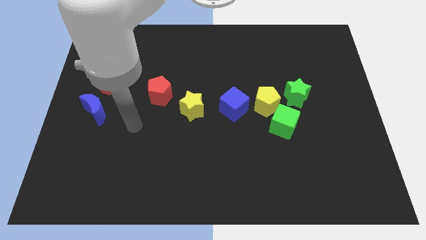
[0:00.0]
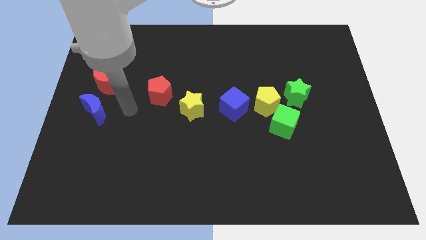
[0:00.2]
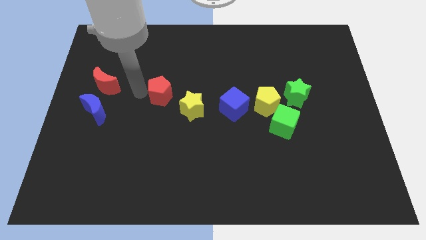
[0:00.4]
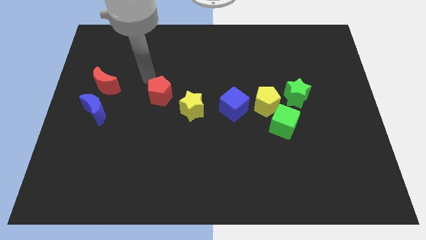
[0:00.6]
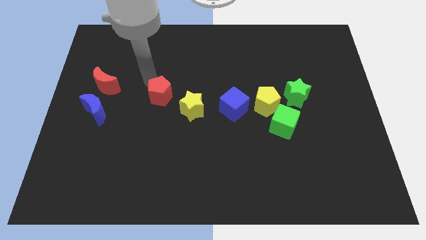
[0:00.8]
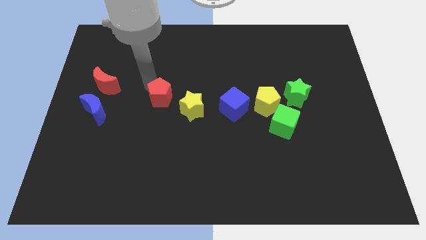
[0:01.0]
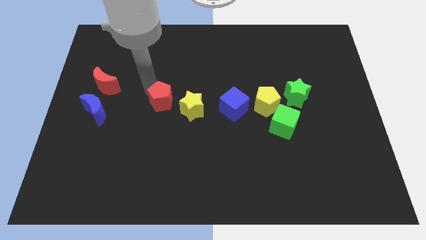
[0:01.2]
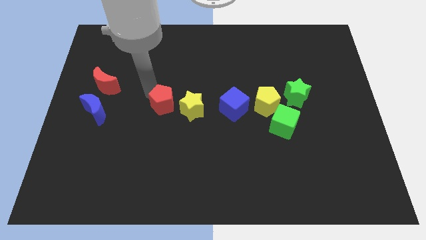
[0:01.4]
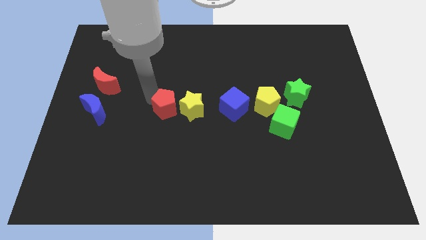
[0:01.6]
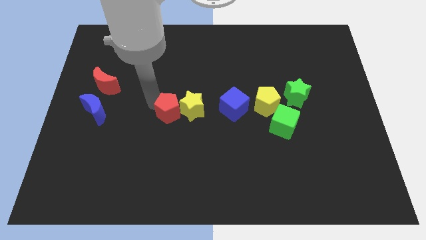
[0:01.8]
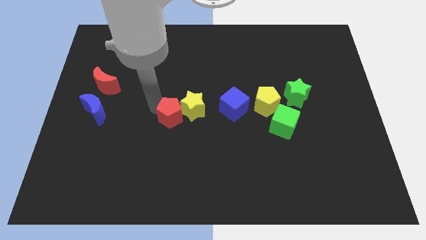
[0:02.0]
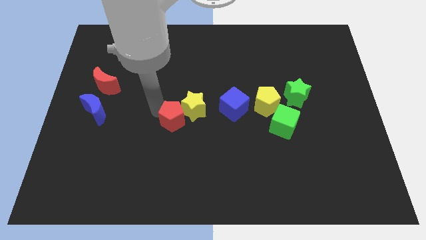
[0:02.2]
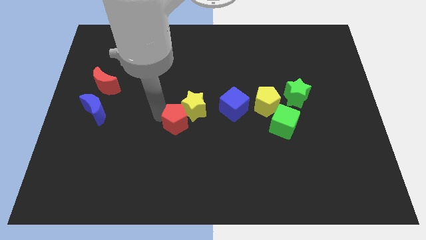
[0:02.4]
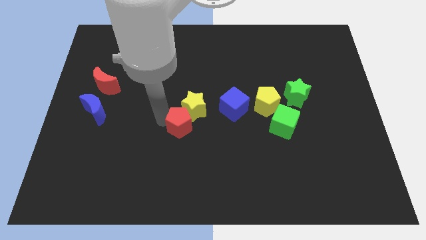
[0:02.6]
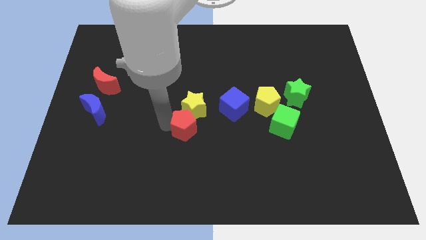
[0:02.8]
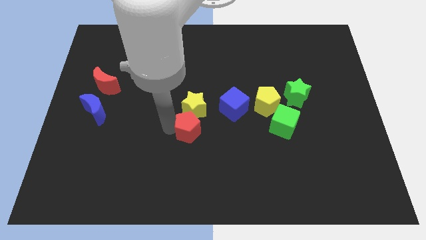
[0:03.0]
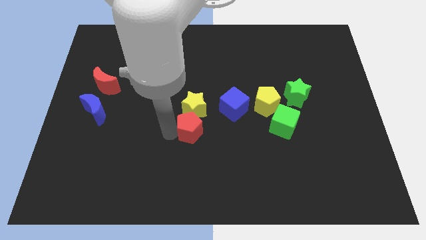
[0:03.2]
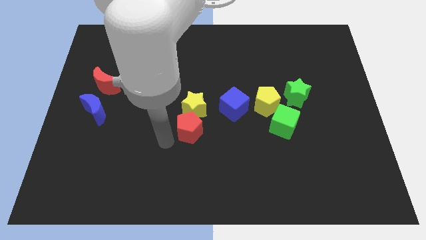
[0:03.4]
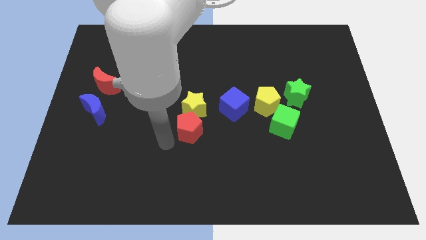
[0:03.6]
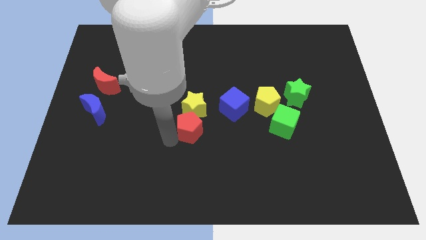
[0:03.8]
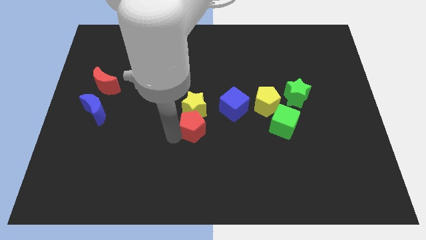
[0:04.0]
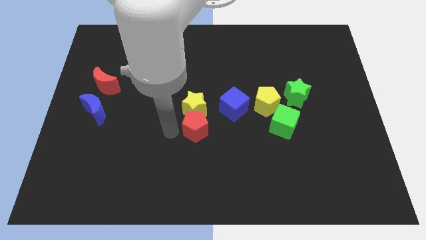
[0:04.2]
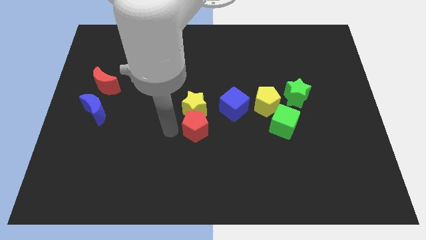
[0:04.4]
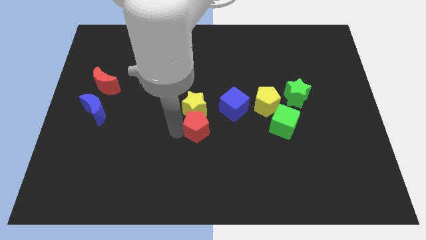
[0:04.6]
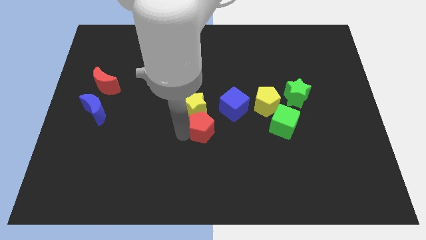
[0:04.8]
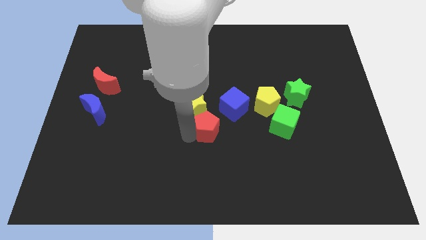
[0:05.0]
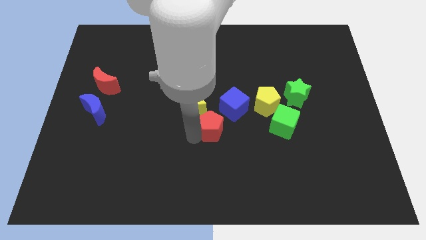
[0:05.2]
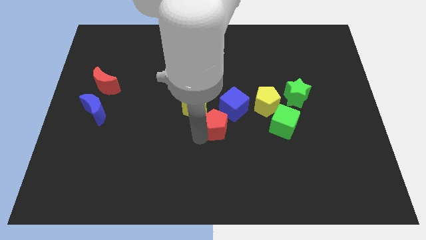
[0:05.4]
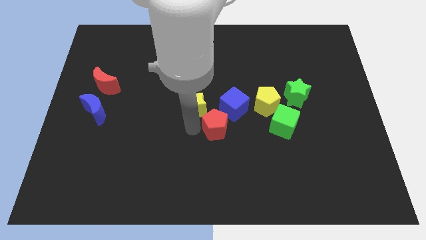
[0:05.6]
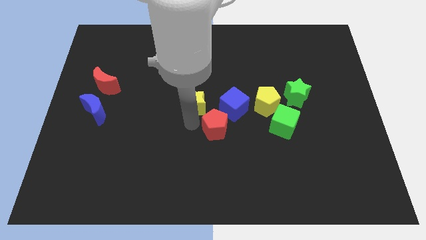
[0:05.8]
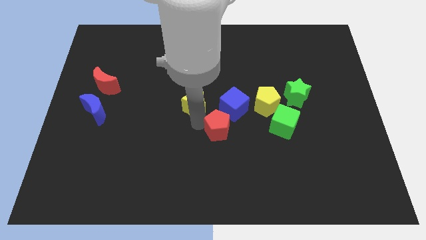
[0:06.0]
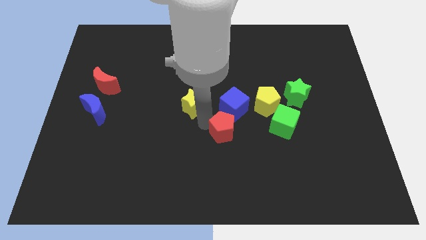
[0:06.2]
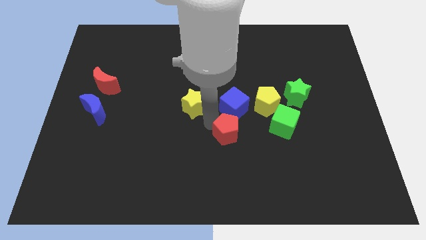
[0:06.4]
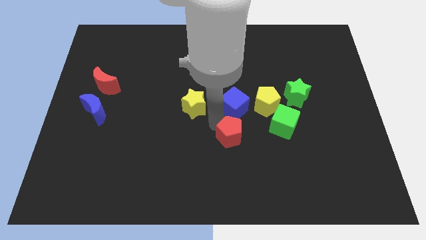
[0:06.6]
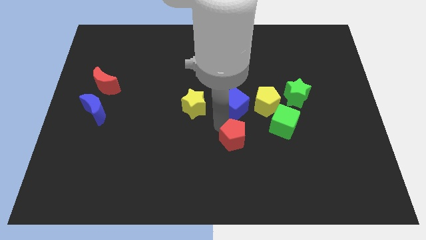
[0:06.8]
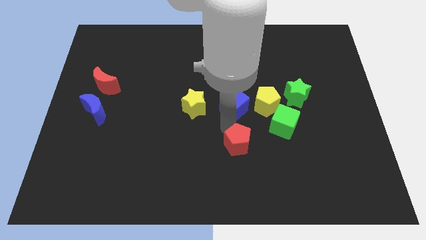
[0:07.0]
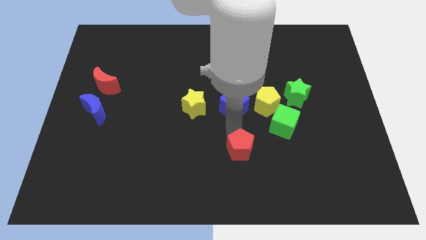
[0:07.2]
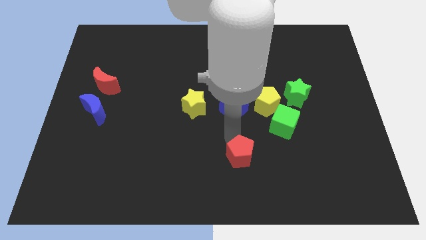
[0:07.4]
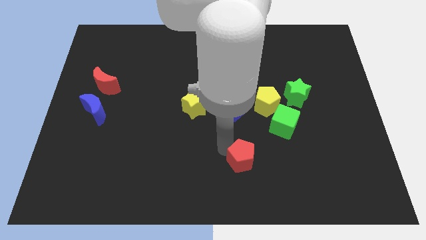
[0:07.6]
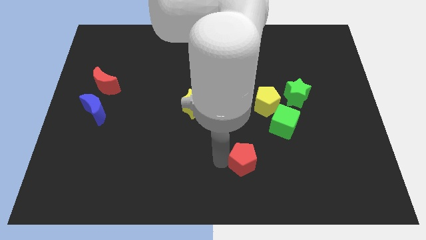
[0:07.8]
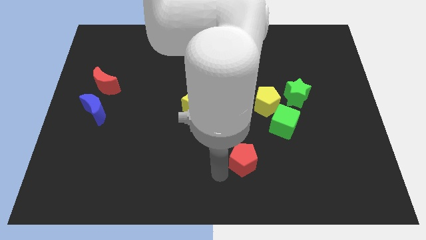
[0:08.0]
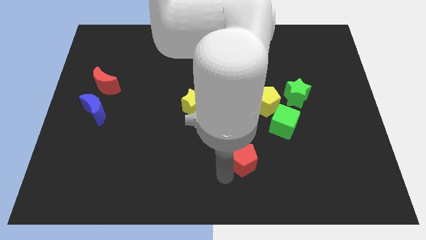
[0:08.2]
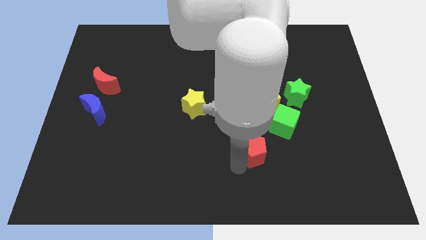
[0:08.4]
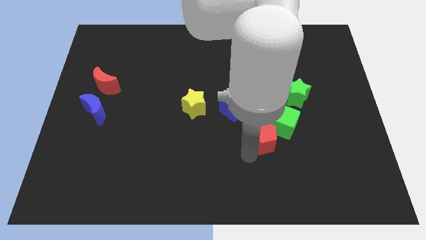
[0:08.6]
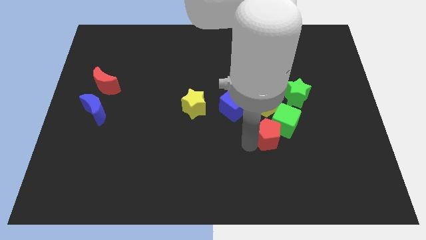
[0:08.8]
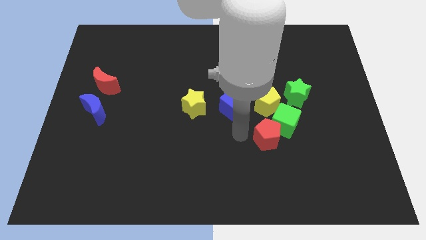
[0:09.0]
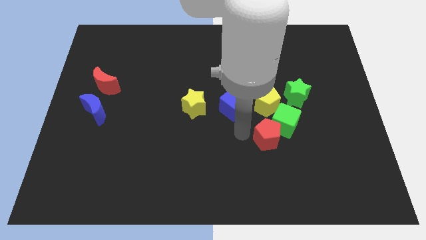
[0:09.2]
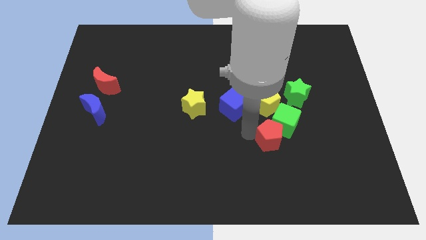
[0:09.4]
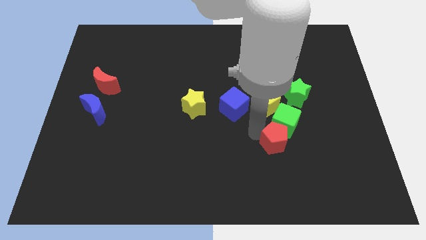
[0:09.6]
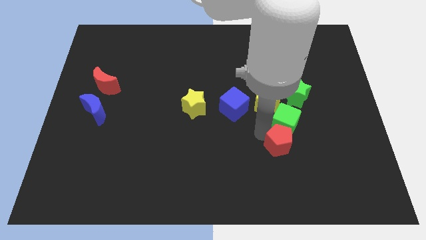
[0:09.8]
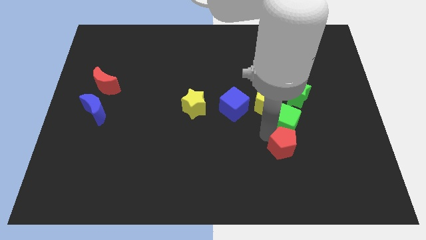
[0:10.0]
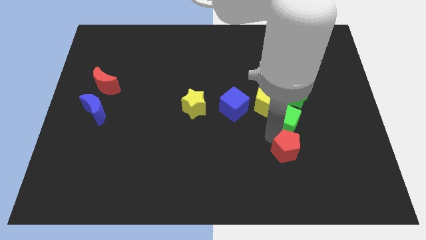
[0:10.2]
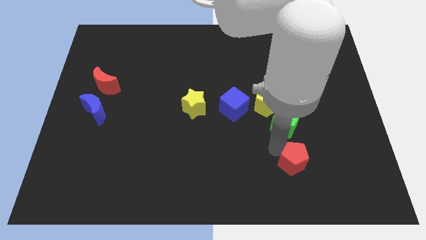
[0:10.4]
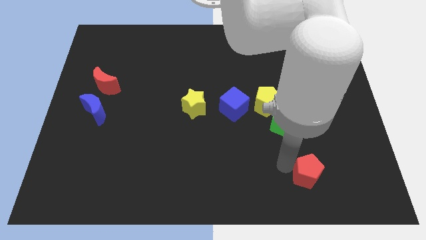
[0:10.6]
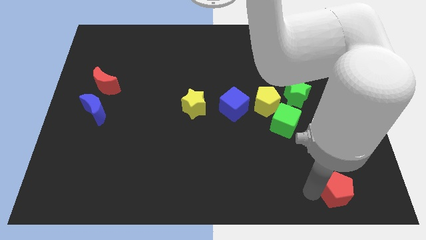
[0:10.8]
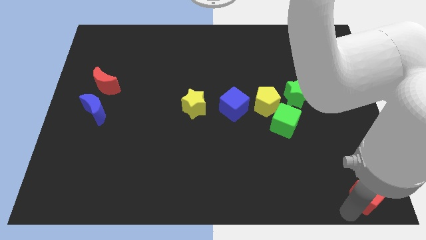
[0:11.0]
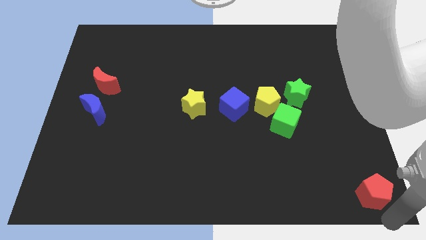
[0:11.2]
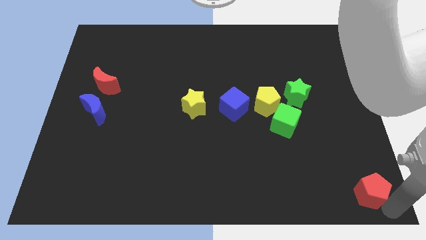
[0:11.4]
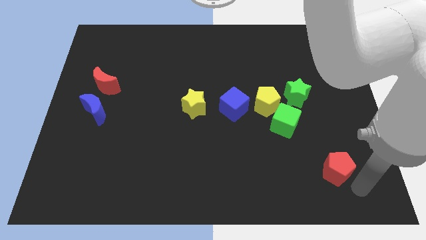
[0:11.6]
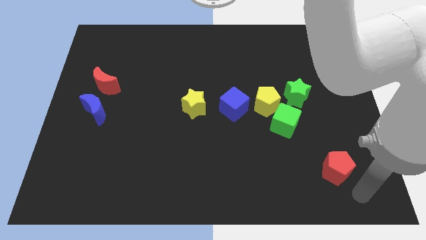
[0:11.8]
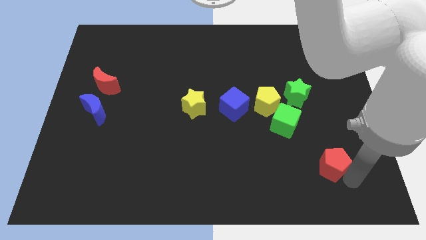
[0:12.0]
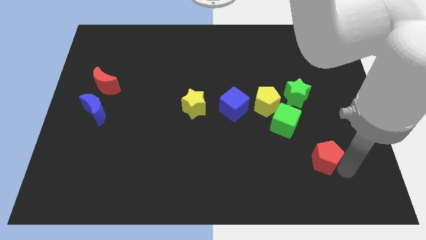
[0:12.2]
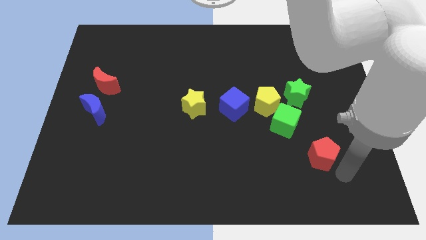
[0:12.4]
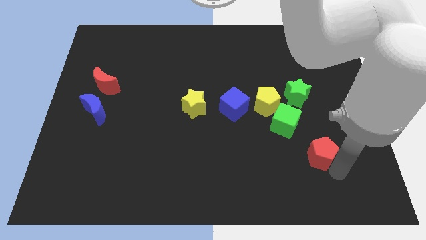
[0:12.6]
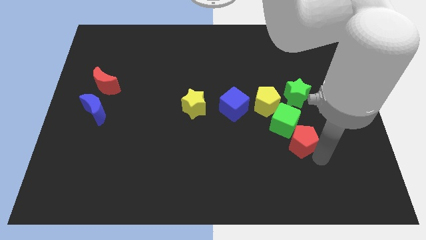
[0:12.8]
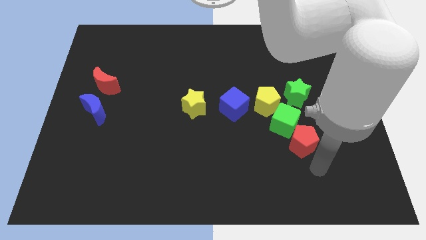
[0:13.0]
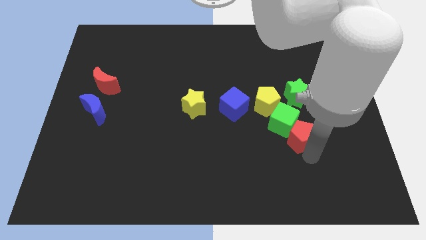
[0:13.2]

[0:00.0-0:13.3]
slide the red pentagon to the bottom right side of the yellow pentagon
